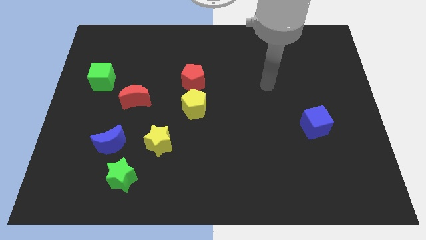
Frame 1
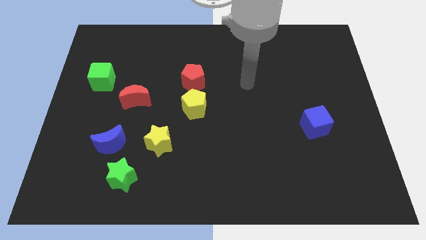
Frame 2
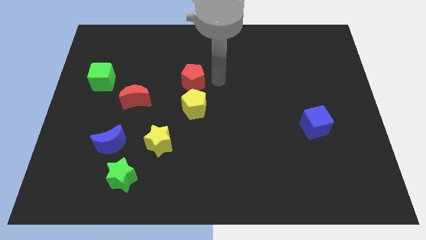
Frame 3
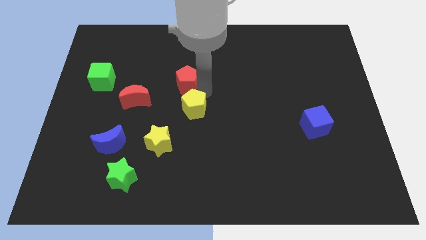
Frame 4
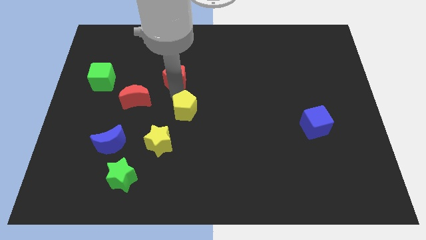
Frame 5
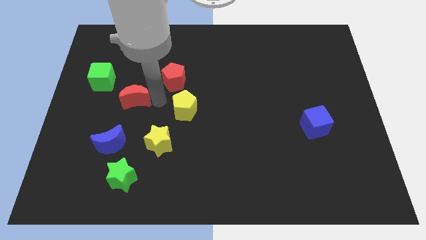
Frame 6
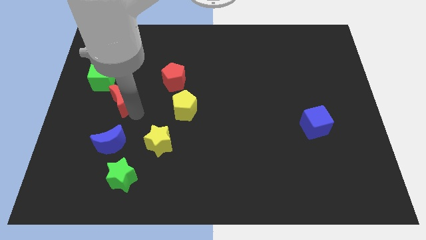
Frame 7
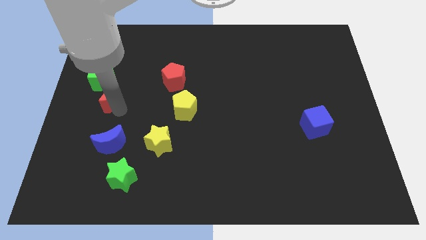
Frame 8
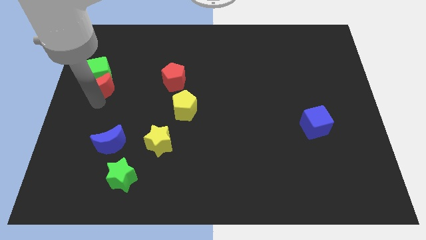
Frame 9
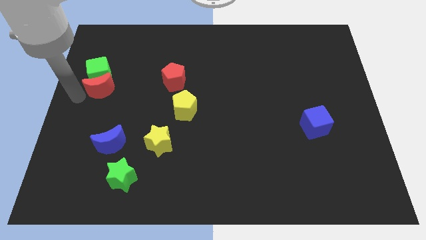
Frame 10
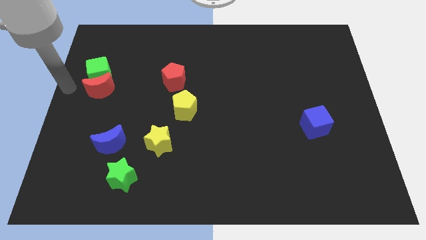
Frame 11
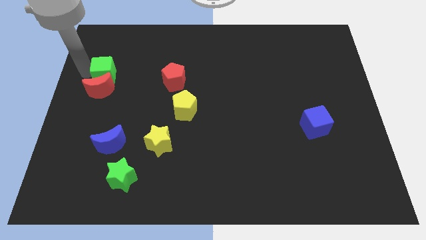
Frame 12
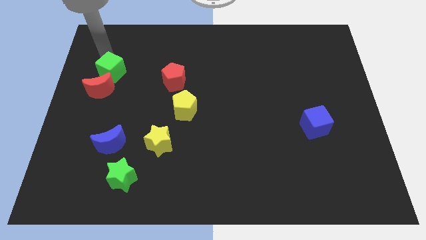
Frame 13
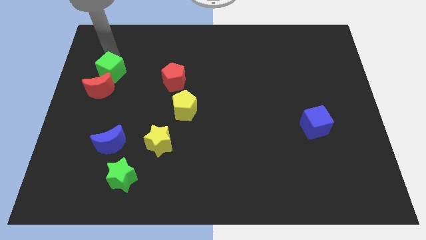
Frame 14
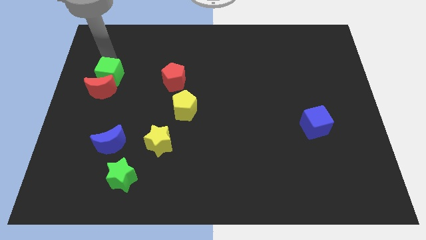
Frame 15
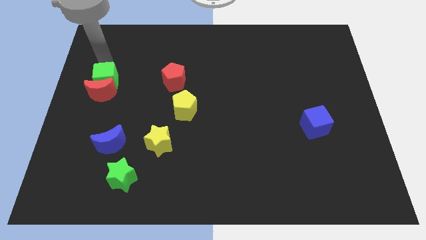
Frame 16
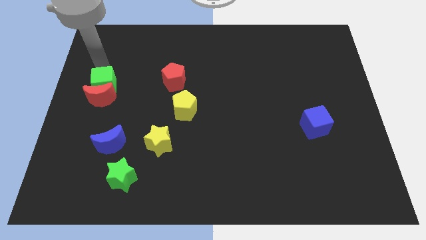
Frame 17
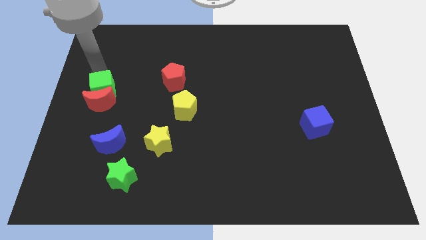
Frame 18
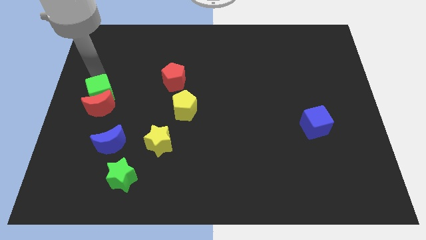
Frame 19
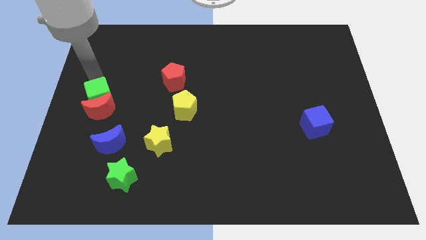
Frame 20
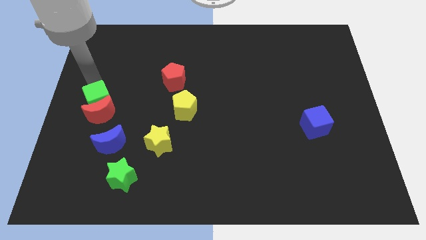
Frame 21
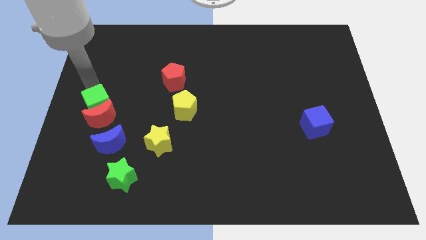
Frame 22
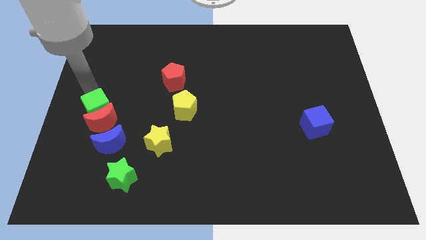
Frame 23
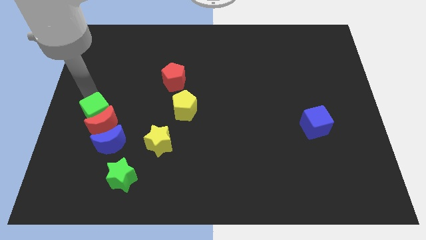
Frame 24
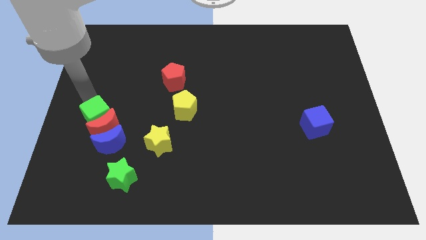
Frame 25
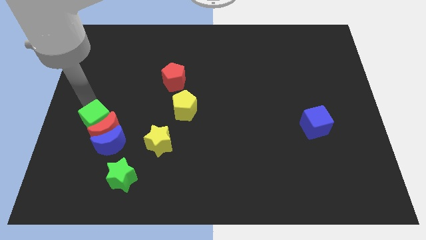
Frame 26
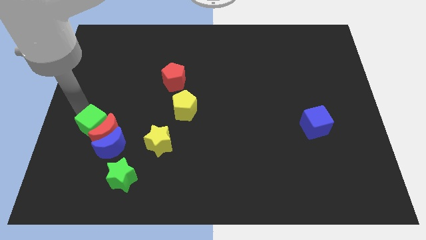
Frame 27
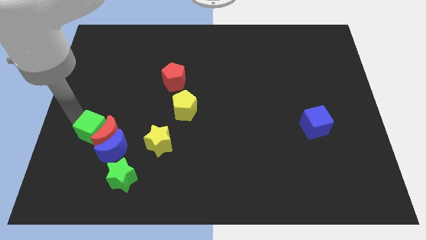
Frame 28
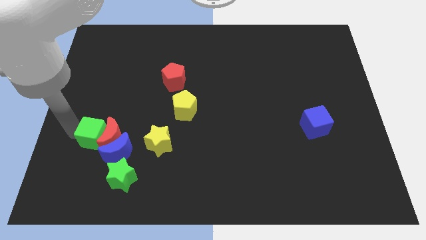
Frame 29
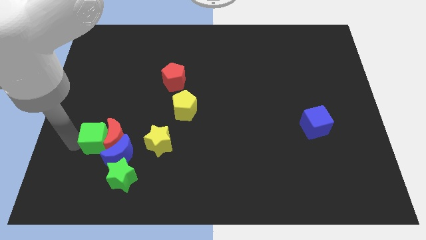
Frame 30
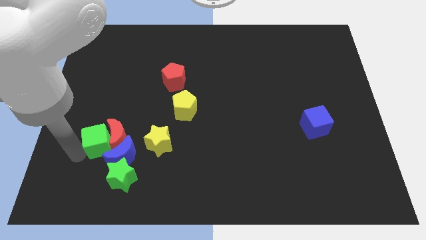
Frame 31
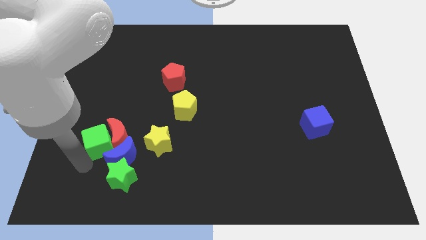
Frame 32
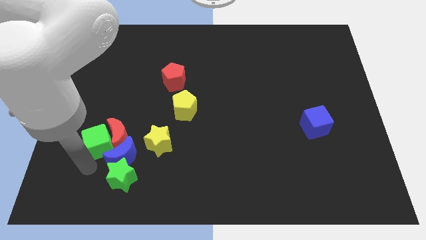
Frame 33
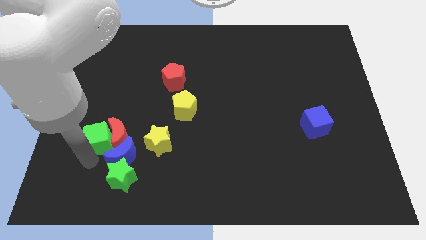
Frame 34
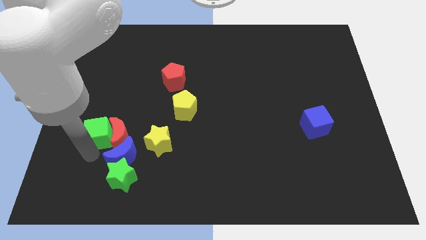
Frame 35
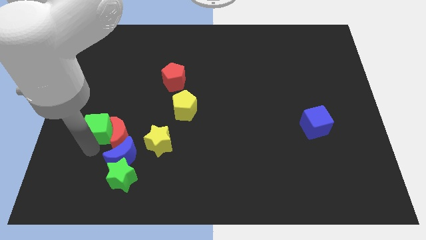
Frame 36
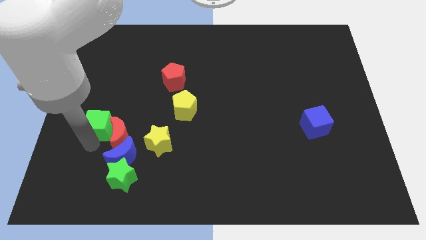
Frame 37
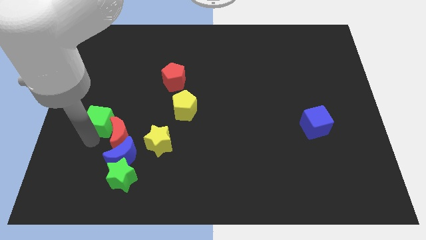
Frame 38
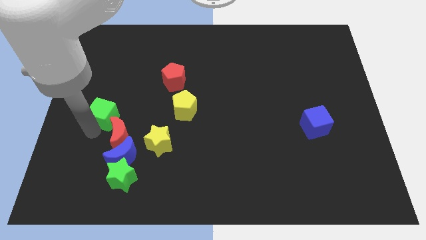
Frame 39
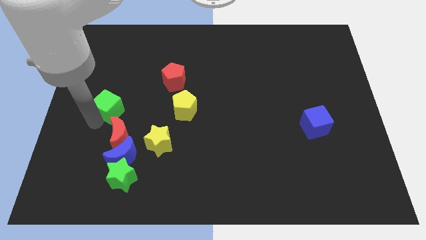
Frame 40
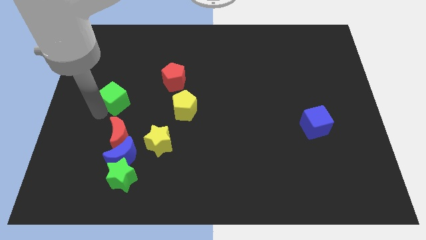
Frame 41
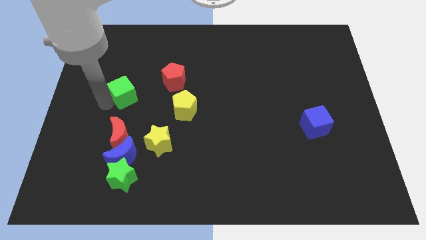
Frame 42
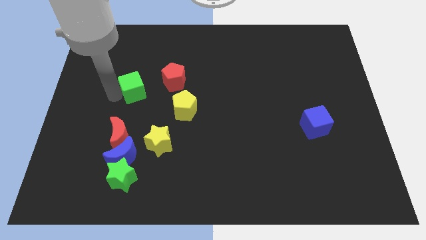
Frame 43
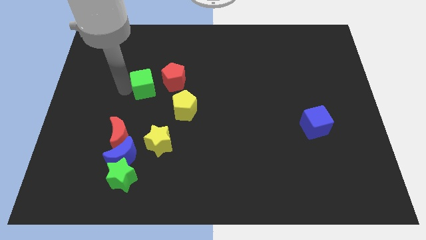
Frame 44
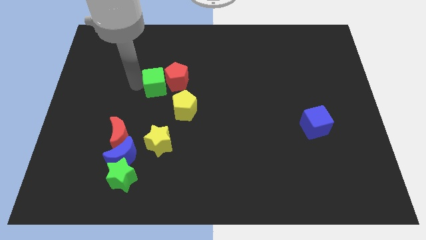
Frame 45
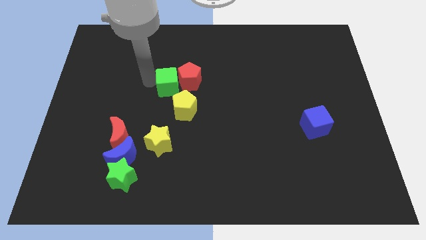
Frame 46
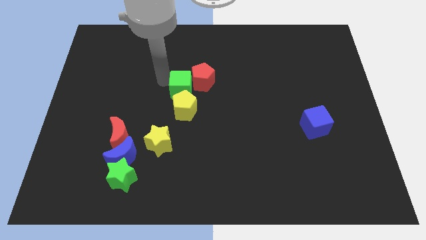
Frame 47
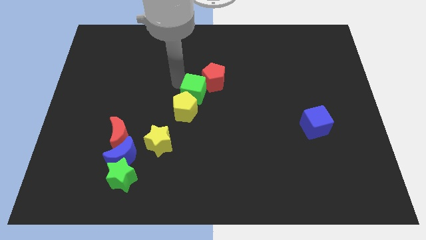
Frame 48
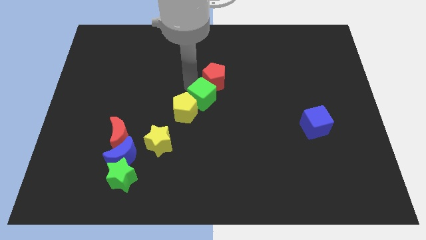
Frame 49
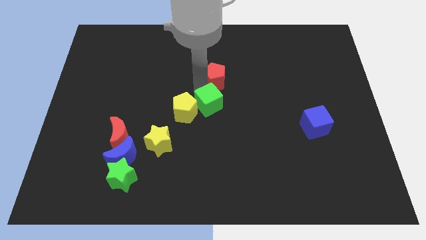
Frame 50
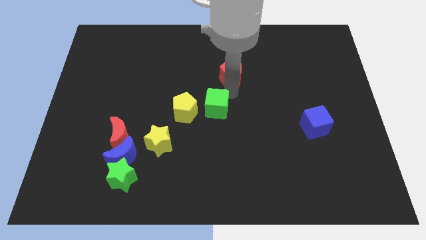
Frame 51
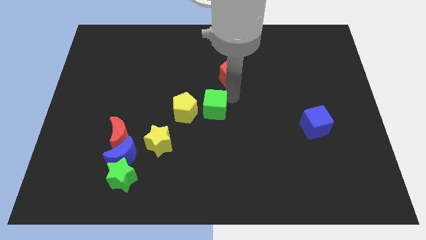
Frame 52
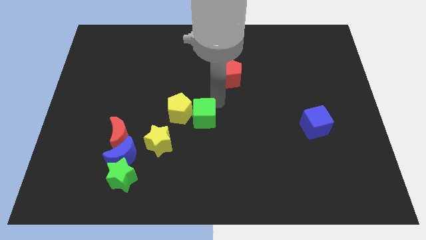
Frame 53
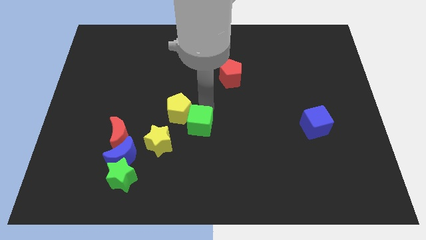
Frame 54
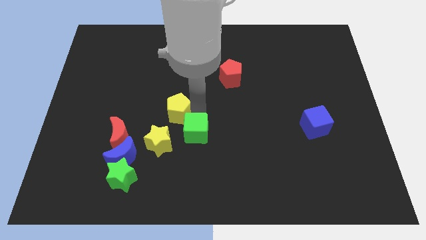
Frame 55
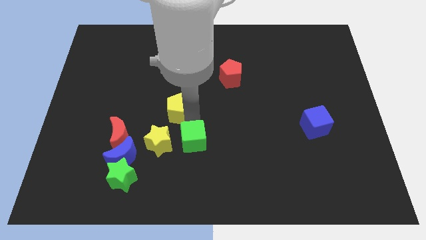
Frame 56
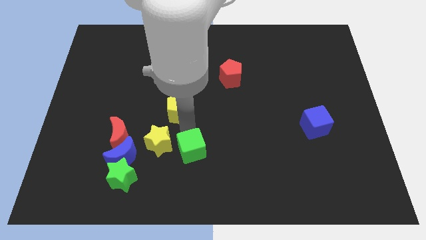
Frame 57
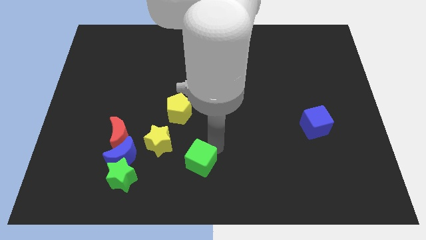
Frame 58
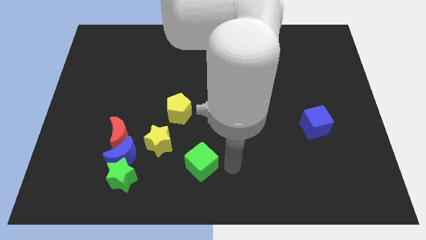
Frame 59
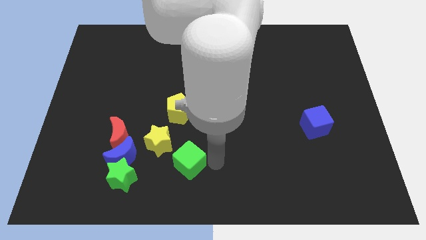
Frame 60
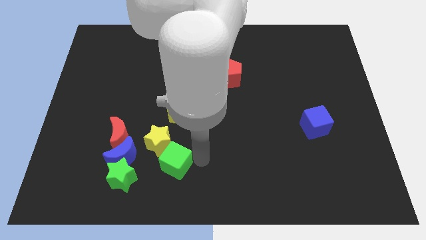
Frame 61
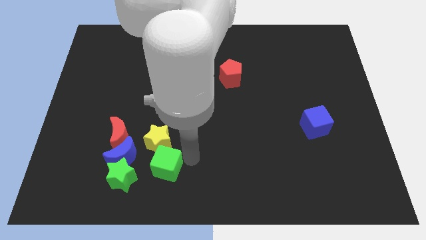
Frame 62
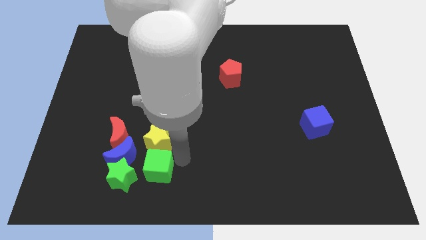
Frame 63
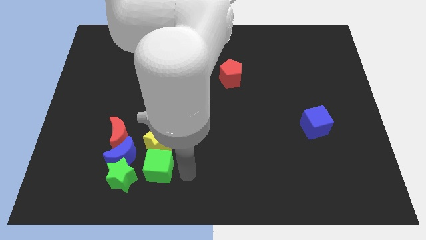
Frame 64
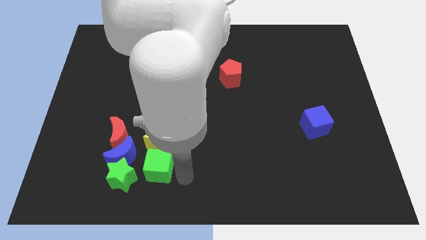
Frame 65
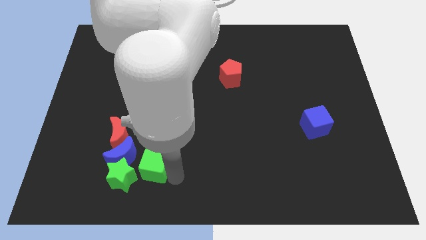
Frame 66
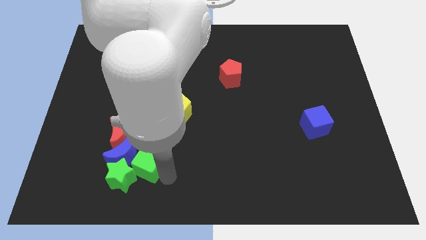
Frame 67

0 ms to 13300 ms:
slide the green cube towards the blue moon
